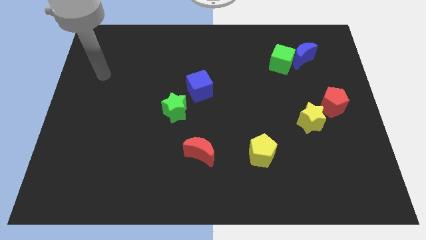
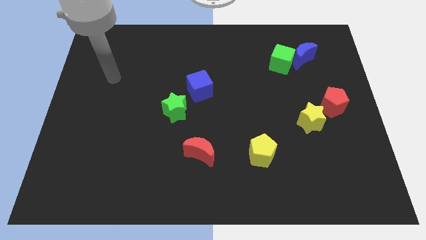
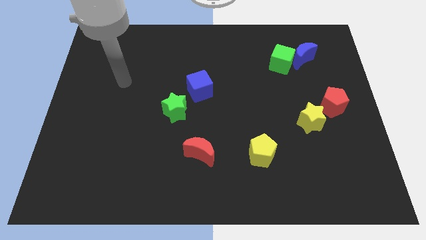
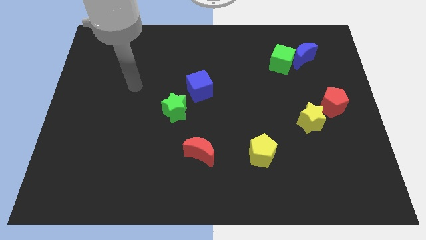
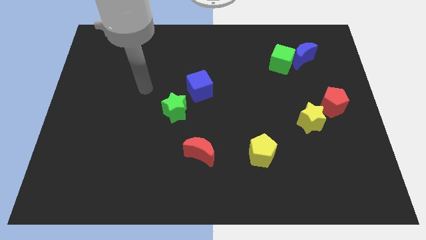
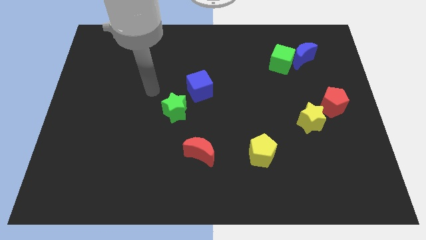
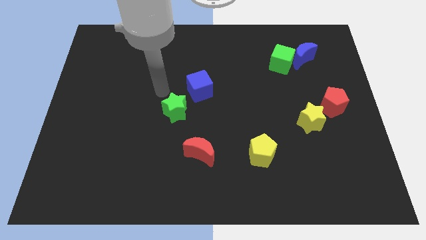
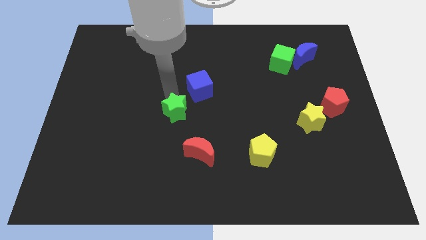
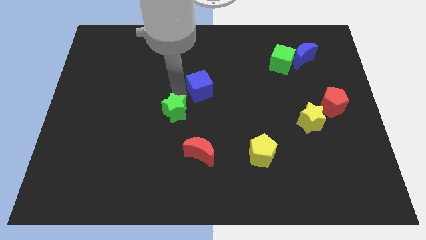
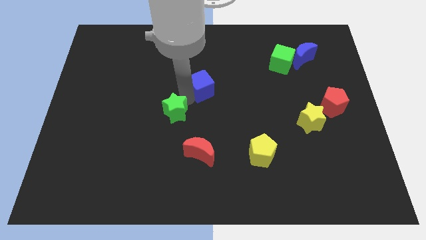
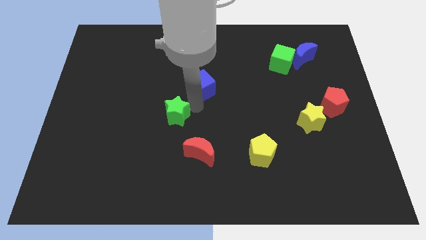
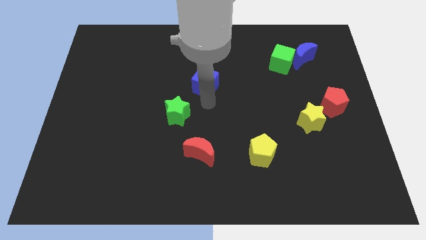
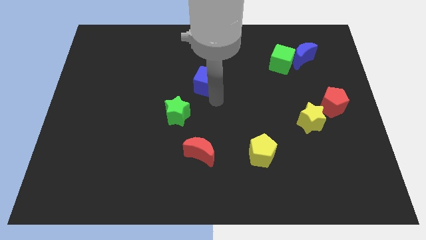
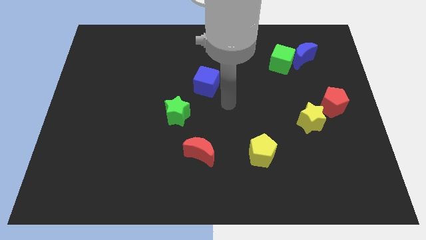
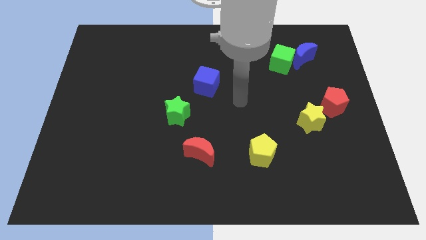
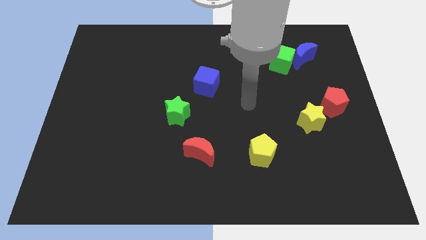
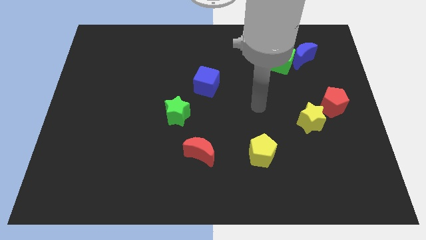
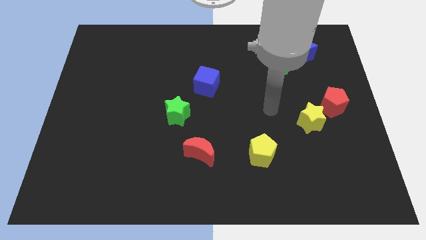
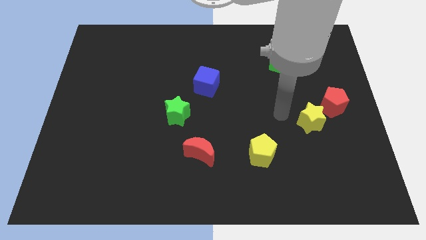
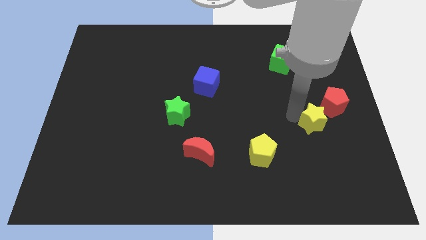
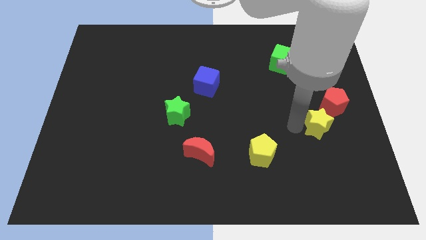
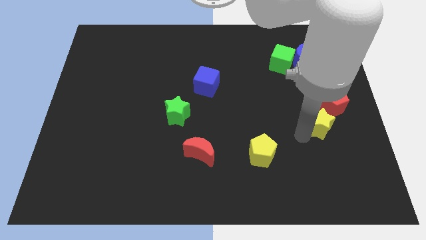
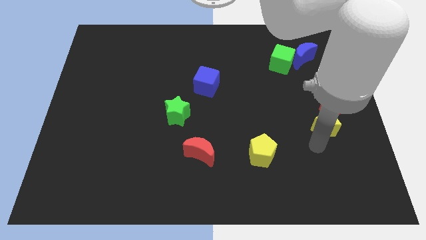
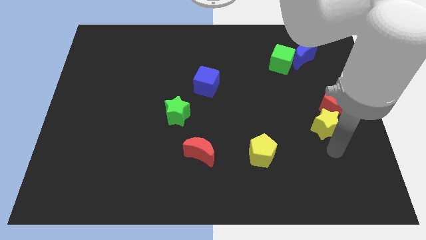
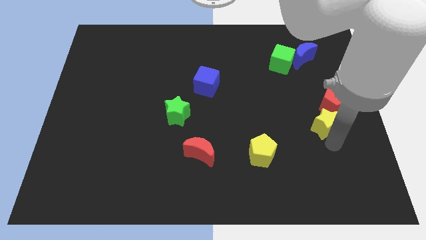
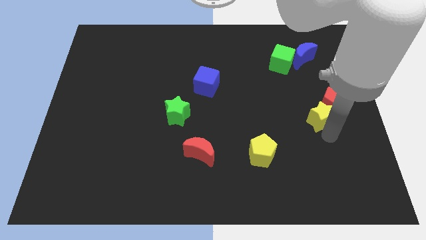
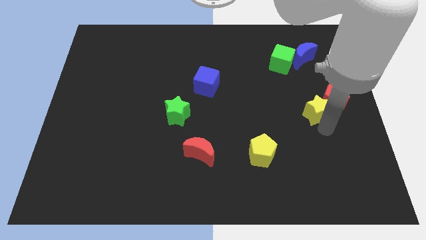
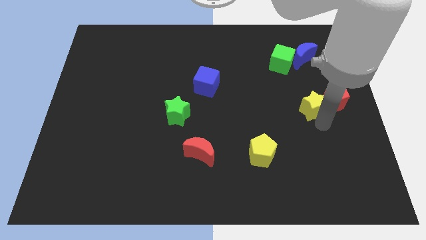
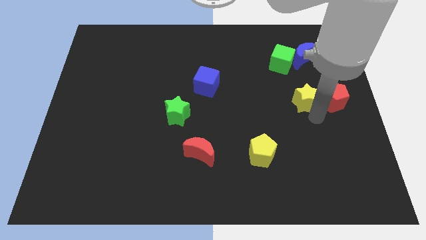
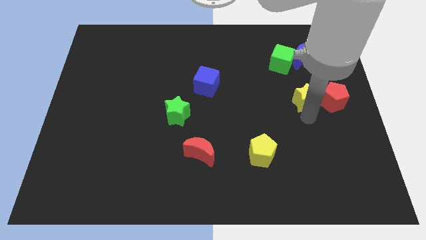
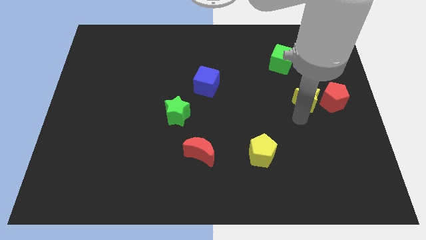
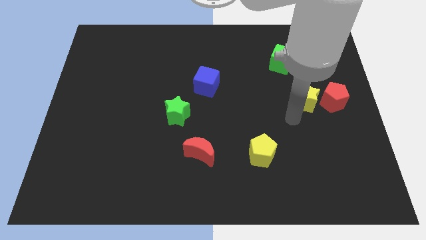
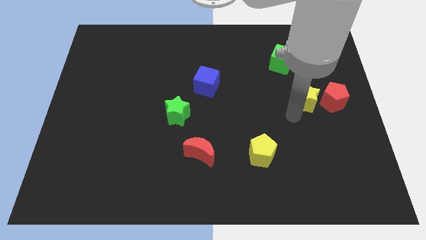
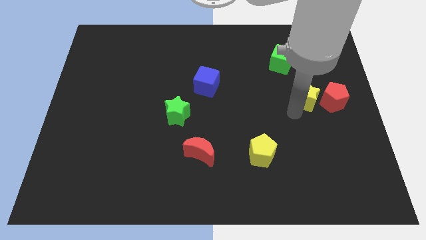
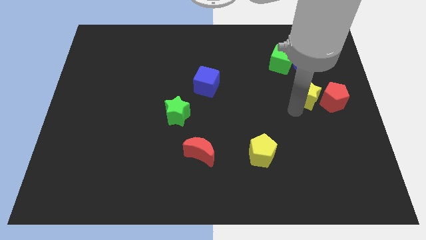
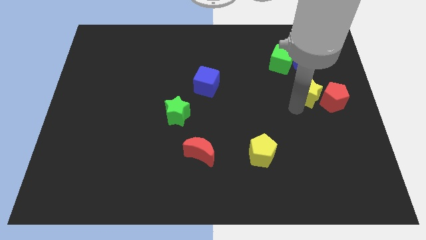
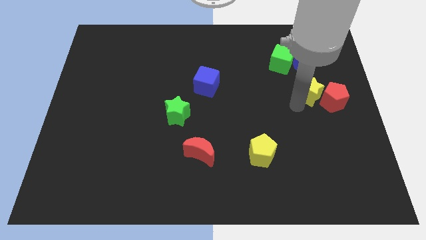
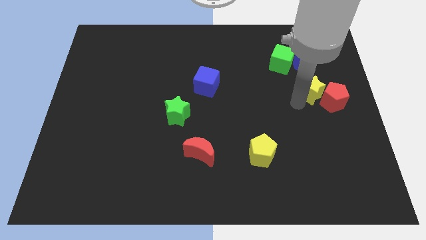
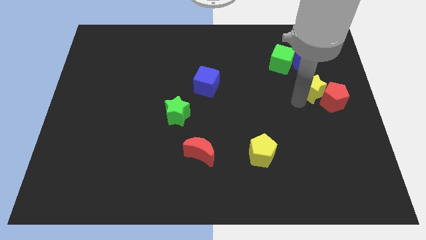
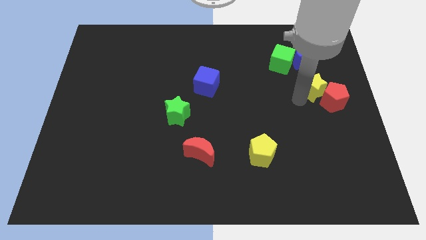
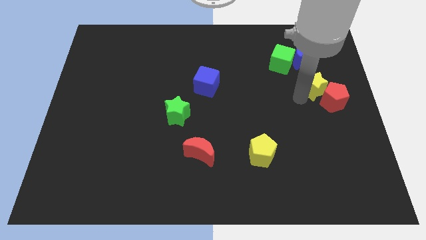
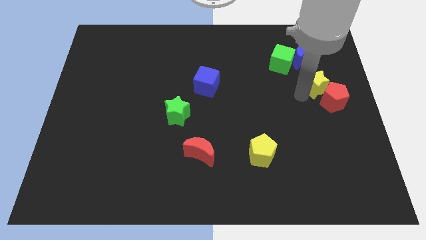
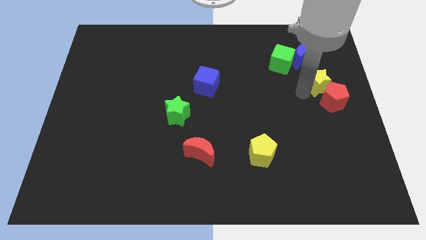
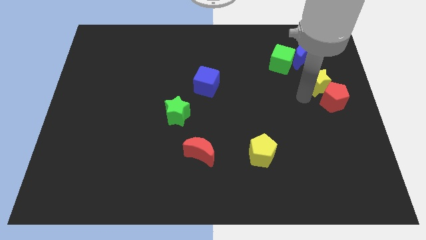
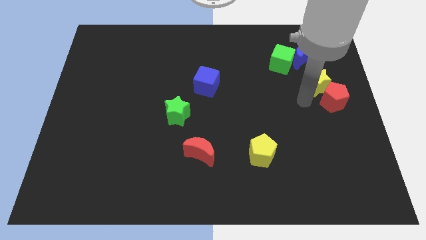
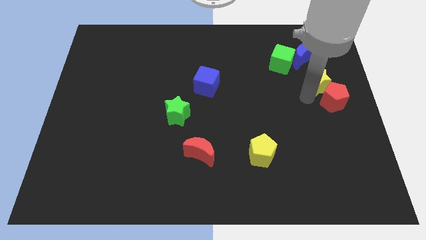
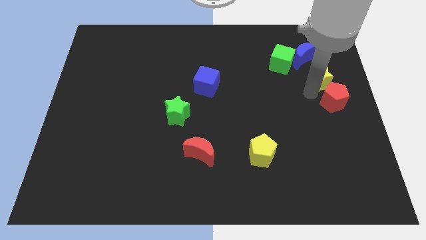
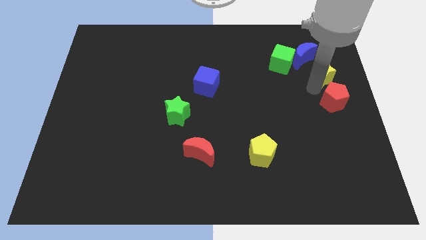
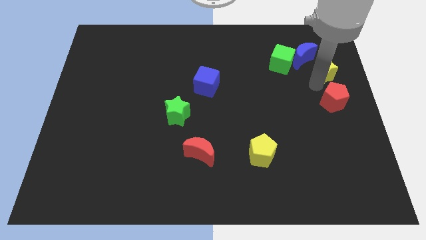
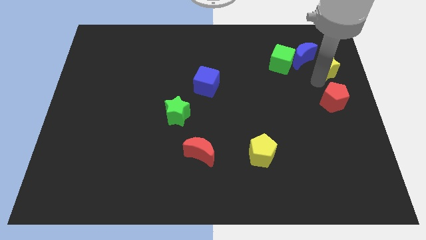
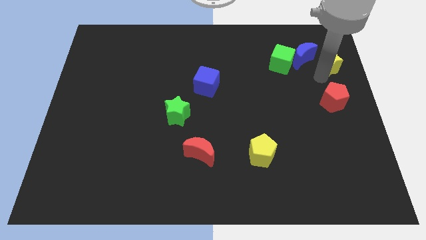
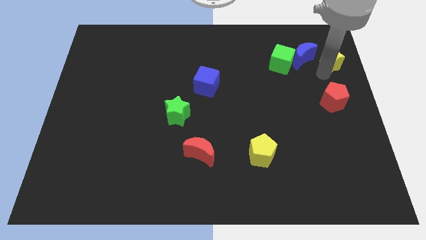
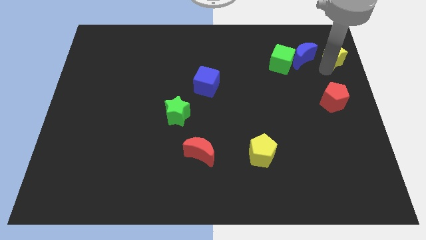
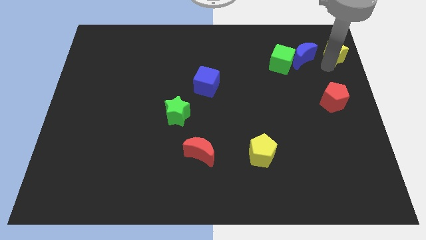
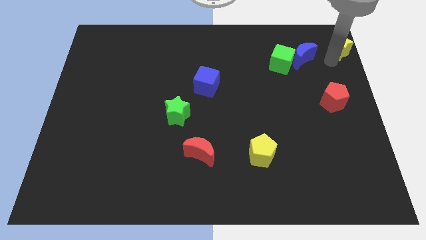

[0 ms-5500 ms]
put the yellow star to the upper right corner

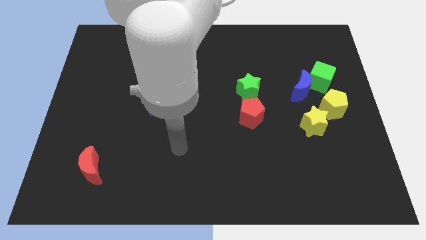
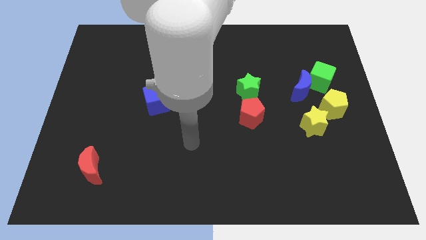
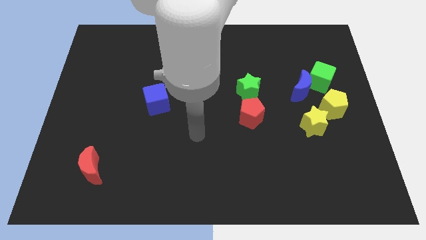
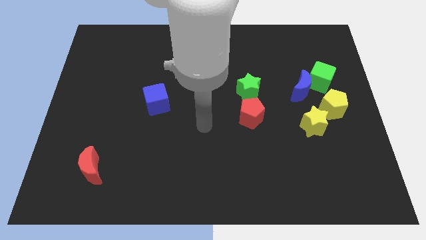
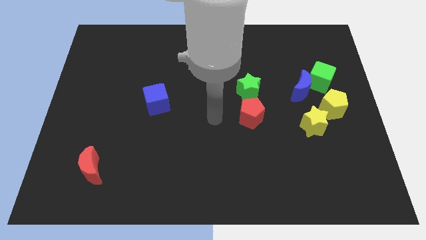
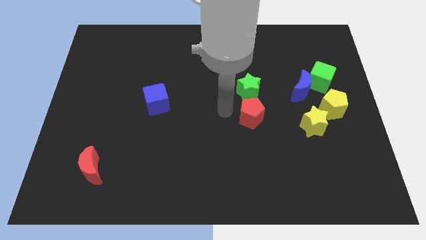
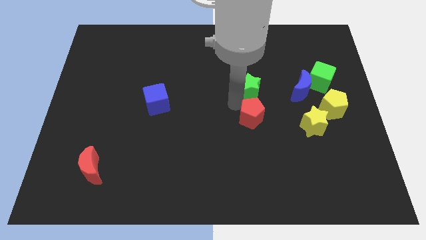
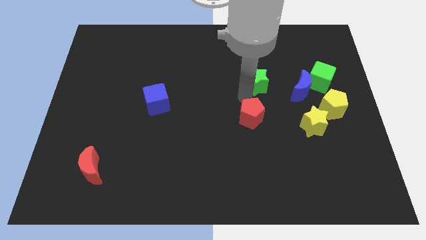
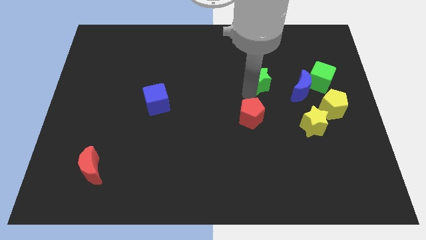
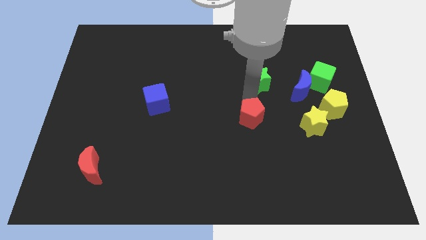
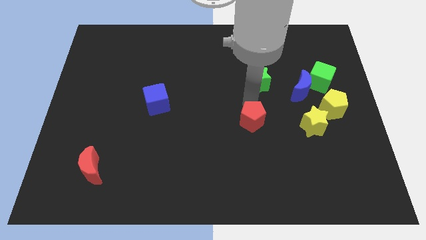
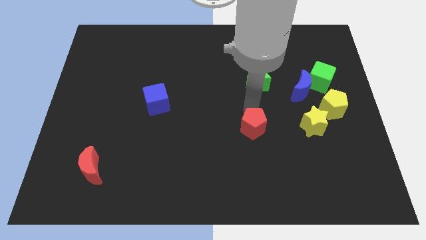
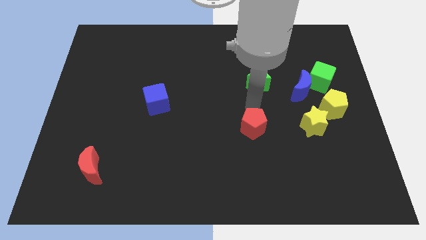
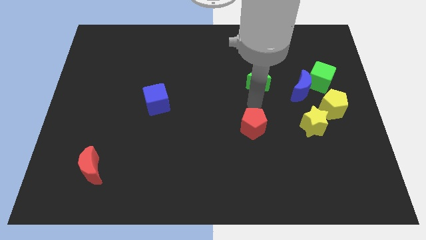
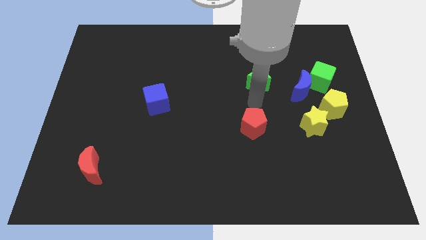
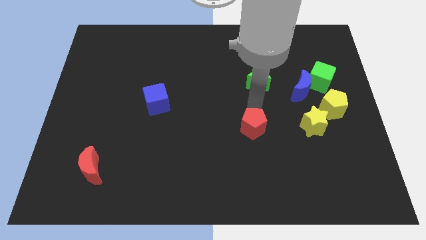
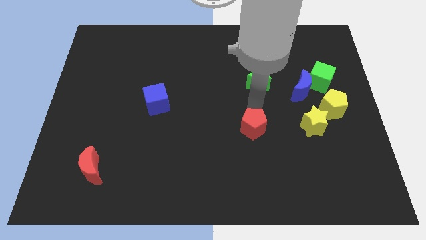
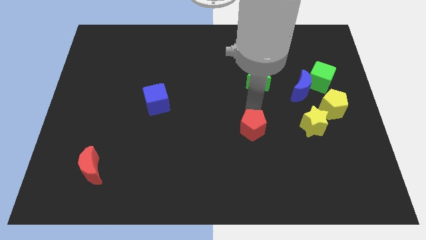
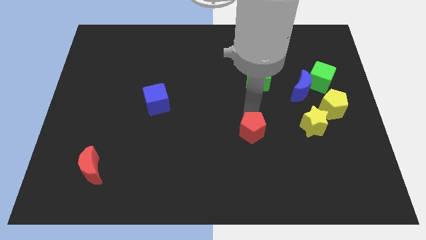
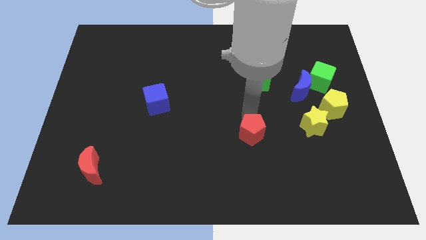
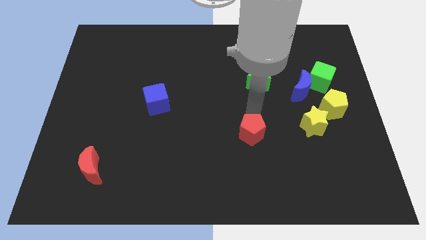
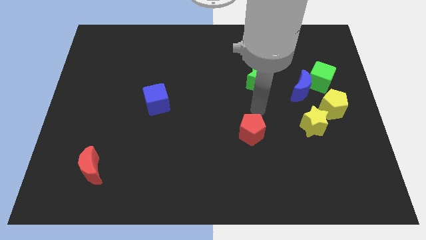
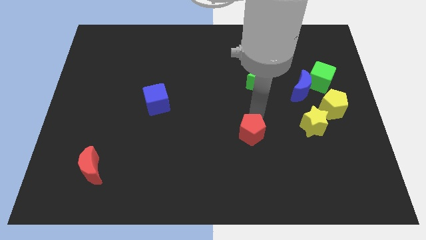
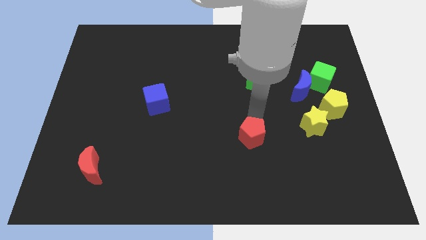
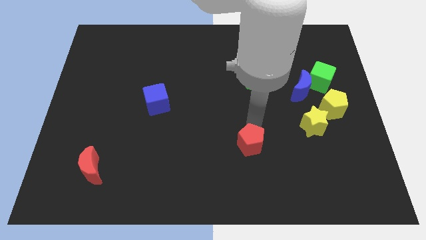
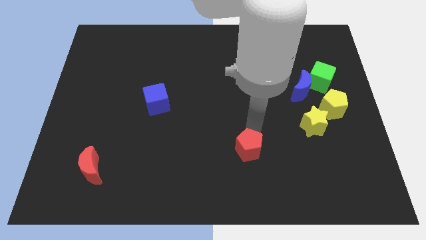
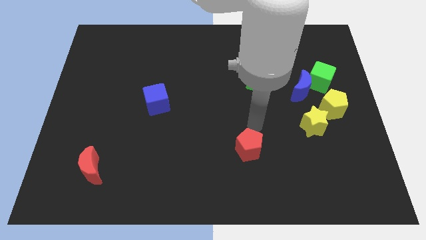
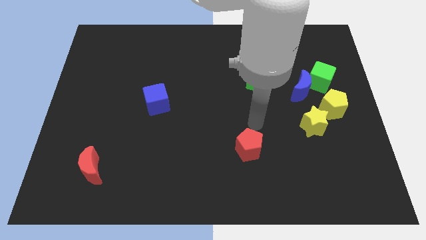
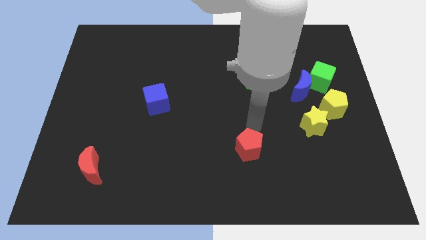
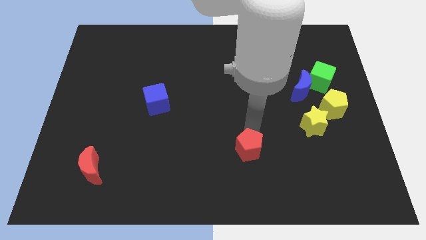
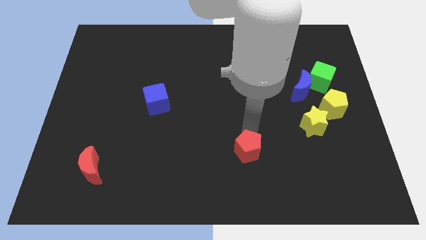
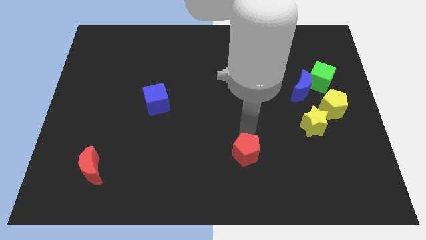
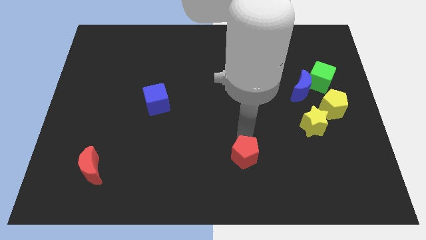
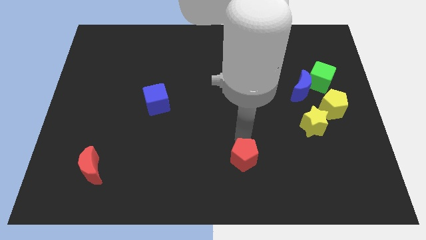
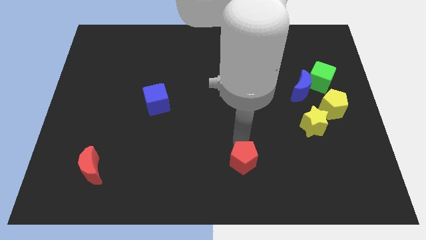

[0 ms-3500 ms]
put the red pentagon to the bottom side
